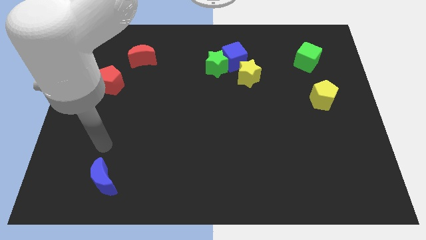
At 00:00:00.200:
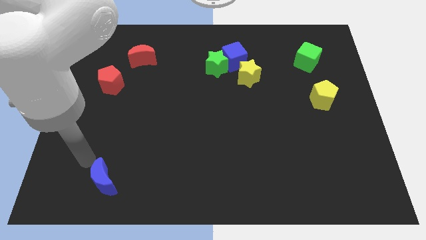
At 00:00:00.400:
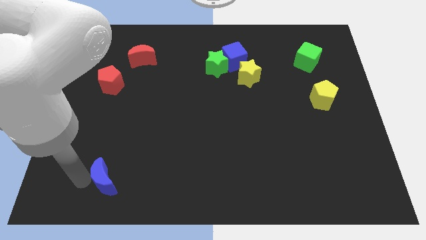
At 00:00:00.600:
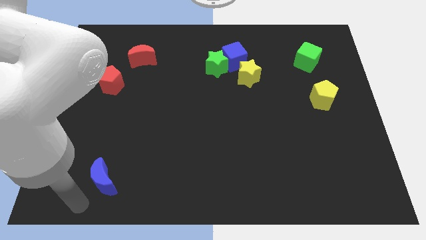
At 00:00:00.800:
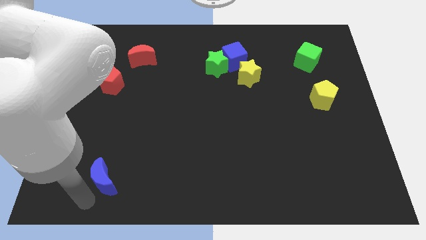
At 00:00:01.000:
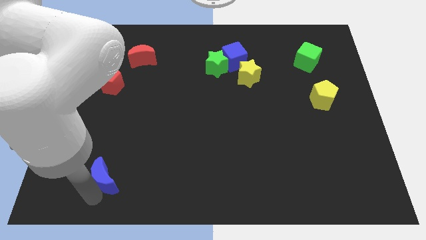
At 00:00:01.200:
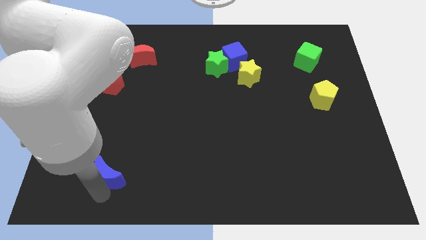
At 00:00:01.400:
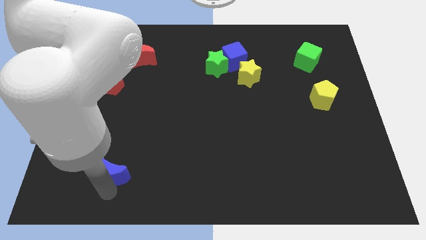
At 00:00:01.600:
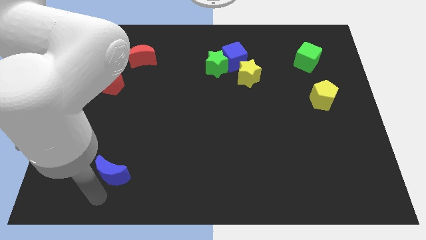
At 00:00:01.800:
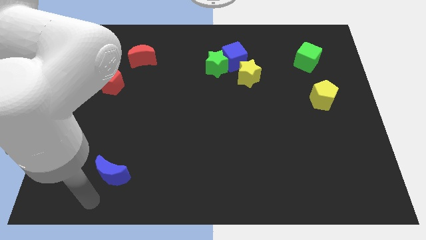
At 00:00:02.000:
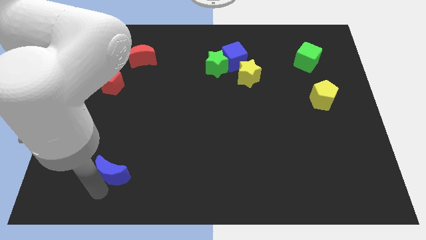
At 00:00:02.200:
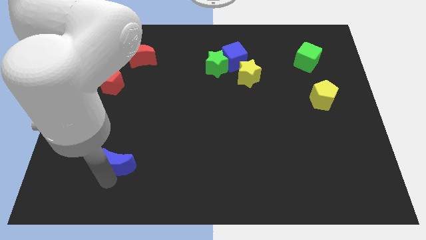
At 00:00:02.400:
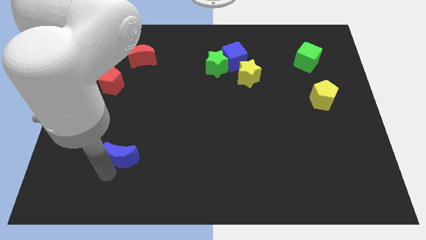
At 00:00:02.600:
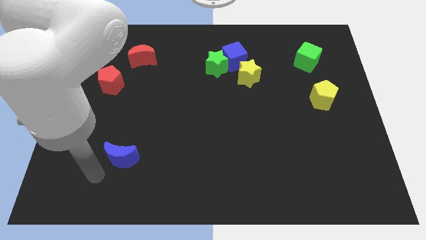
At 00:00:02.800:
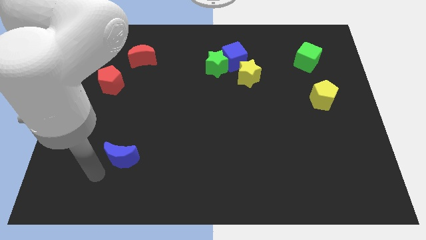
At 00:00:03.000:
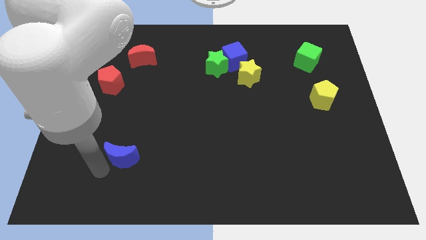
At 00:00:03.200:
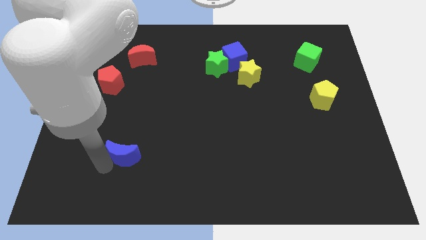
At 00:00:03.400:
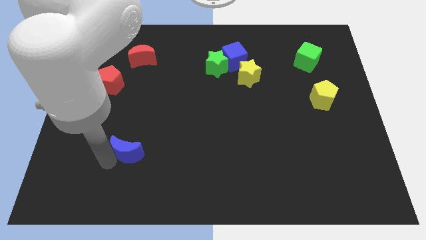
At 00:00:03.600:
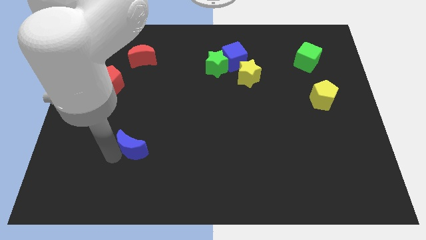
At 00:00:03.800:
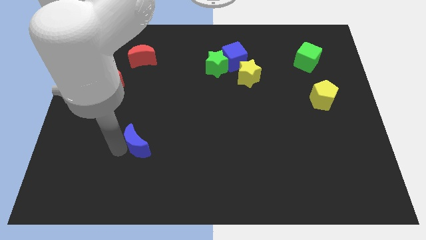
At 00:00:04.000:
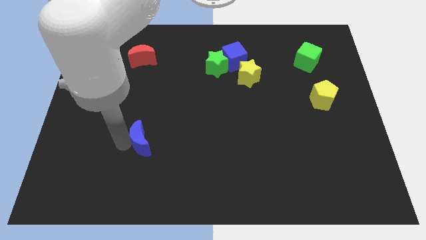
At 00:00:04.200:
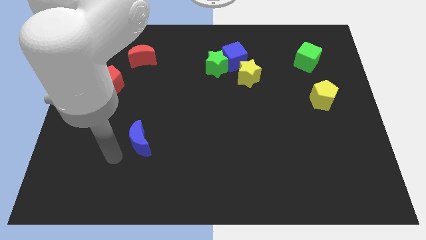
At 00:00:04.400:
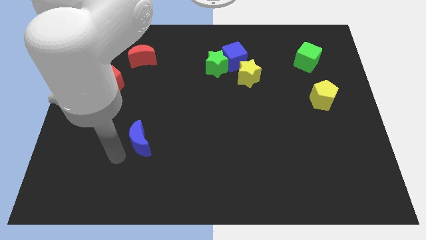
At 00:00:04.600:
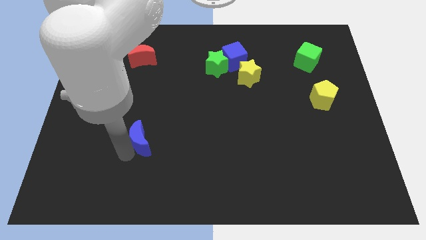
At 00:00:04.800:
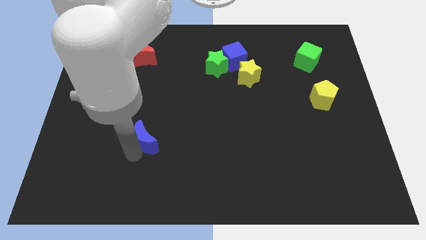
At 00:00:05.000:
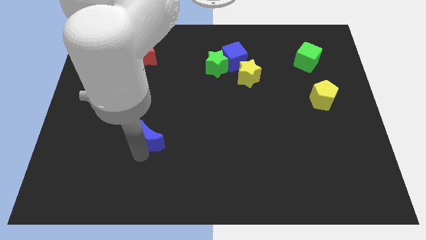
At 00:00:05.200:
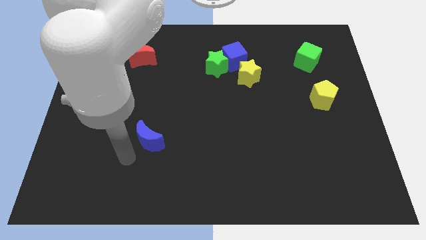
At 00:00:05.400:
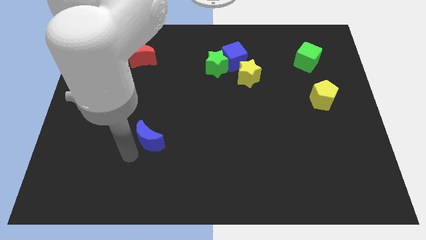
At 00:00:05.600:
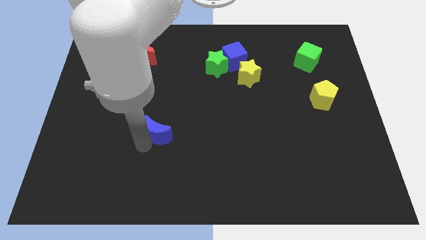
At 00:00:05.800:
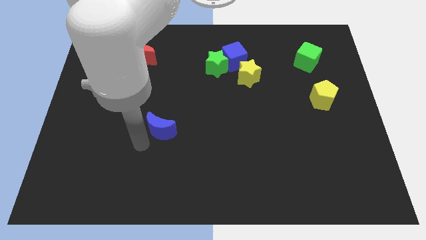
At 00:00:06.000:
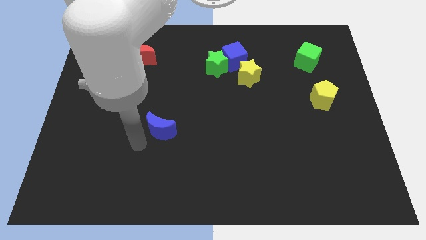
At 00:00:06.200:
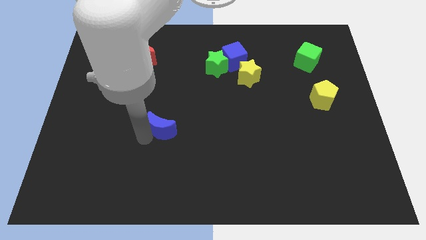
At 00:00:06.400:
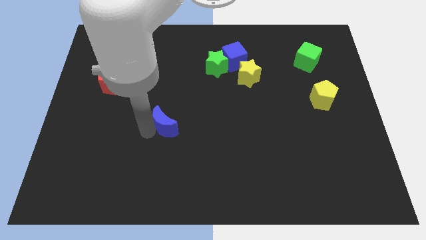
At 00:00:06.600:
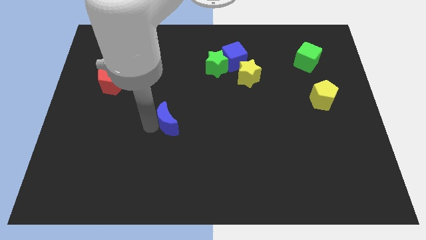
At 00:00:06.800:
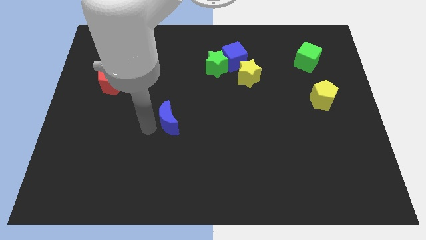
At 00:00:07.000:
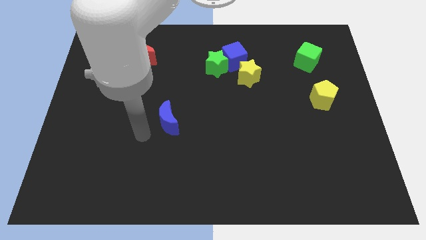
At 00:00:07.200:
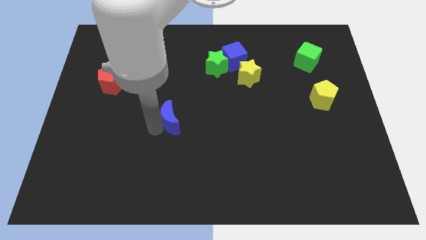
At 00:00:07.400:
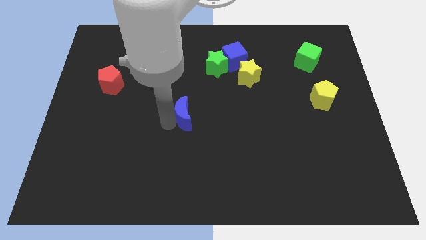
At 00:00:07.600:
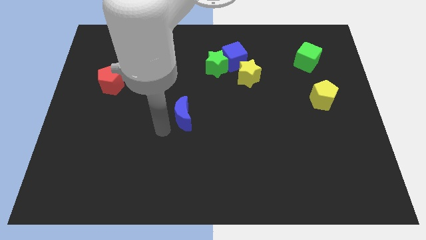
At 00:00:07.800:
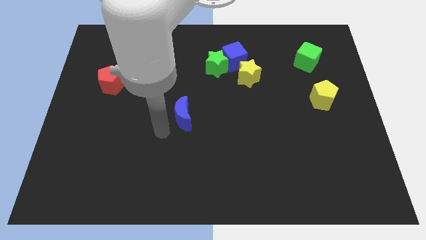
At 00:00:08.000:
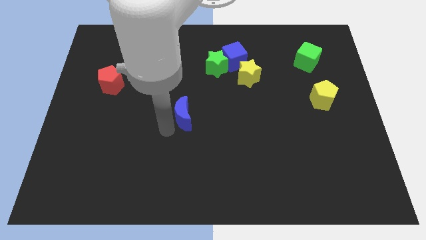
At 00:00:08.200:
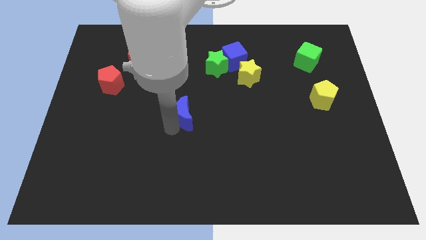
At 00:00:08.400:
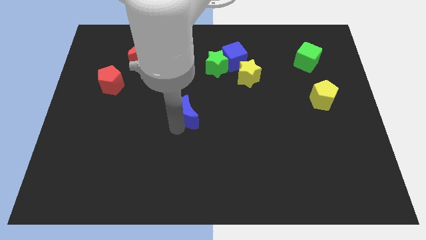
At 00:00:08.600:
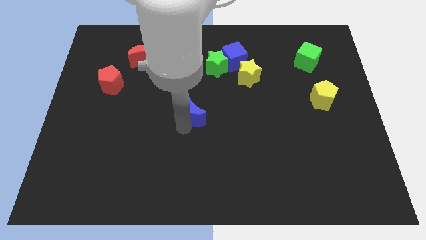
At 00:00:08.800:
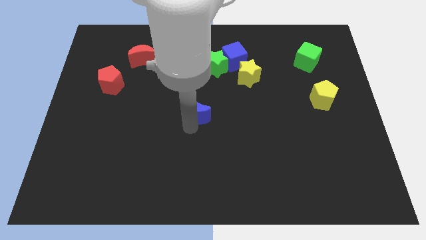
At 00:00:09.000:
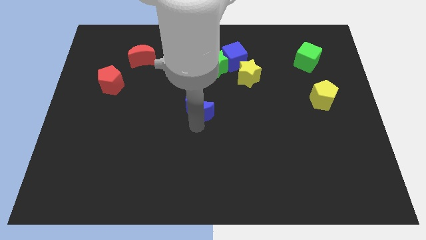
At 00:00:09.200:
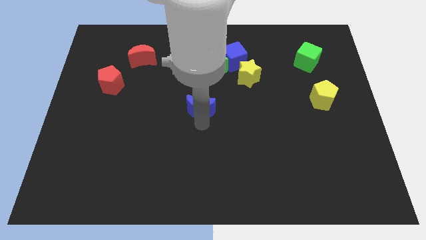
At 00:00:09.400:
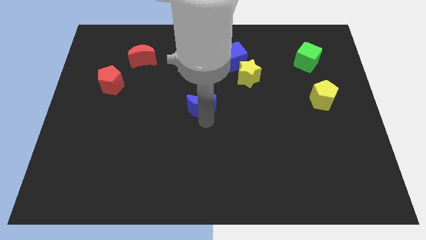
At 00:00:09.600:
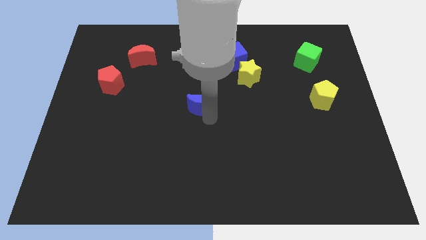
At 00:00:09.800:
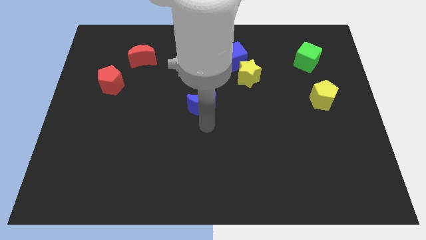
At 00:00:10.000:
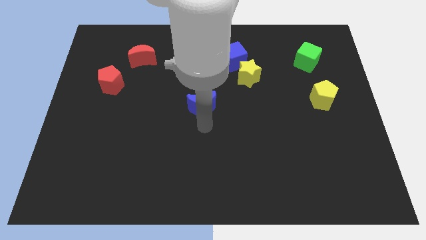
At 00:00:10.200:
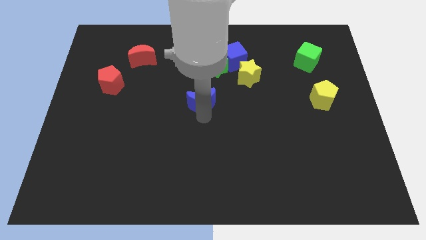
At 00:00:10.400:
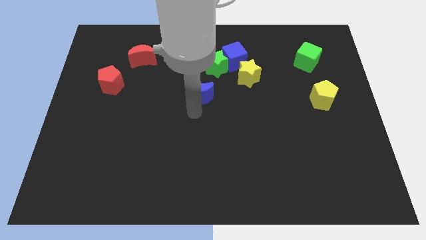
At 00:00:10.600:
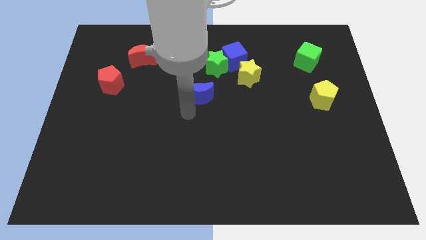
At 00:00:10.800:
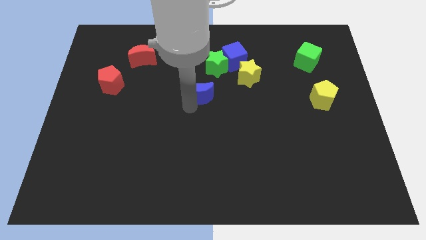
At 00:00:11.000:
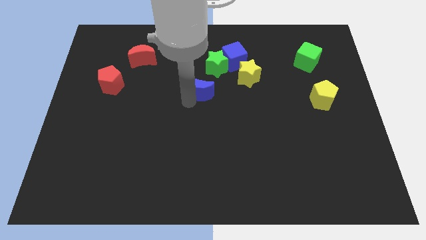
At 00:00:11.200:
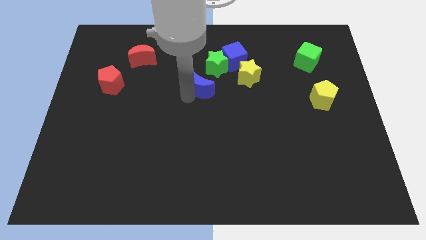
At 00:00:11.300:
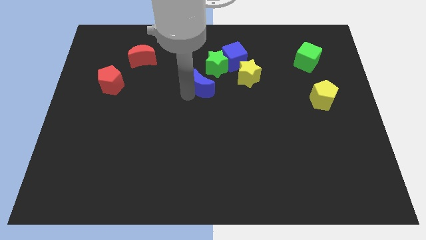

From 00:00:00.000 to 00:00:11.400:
slide the blue moon diagonally down and to the left of the blue cube
